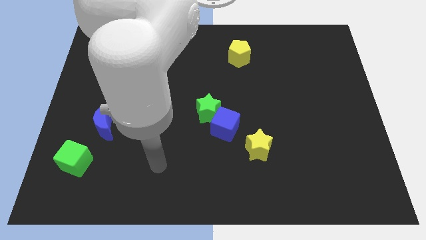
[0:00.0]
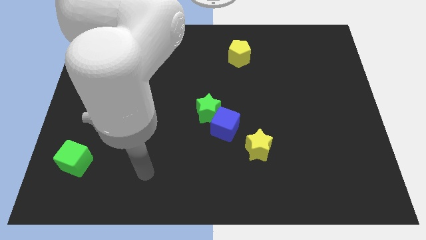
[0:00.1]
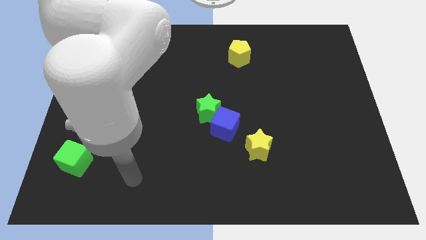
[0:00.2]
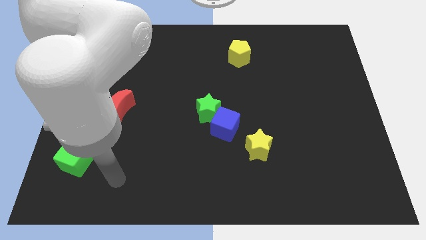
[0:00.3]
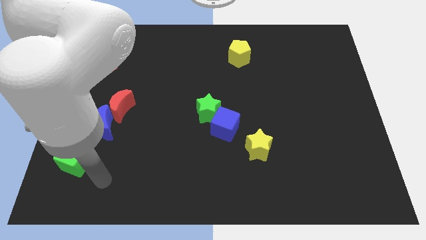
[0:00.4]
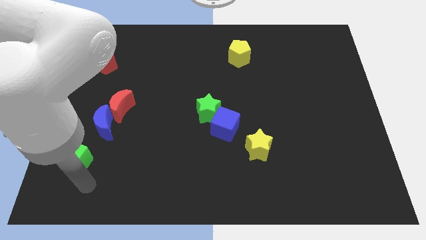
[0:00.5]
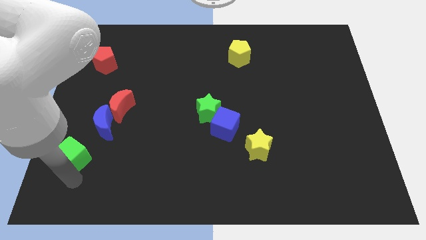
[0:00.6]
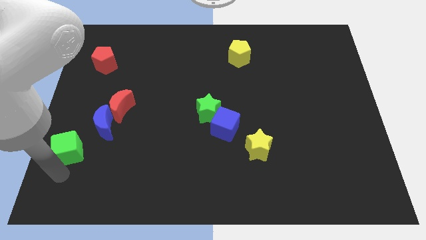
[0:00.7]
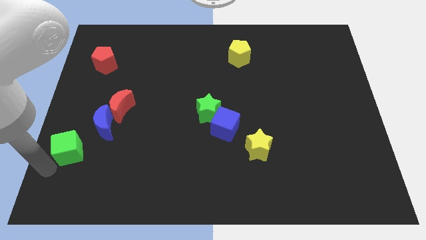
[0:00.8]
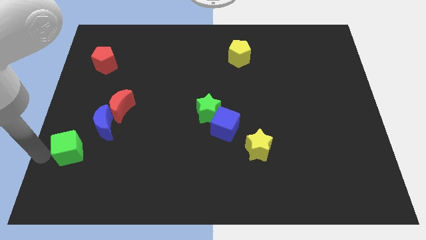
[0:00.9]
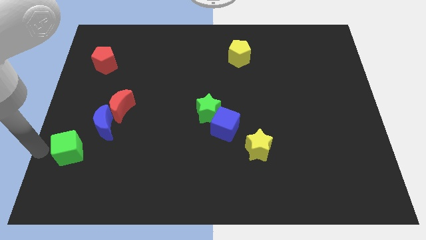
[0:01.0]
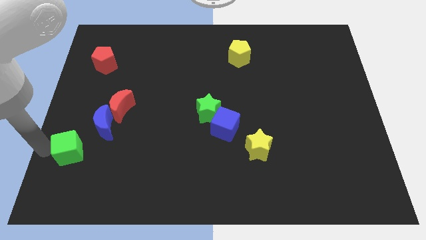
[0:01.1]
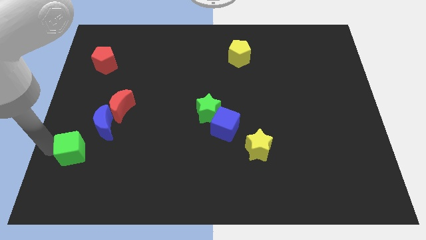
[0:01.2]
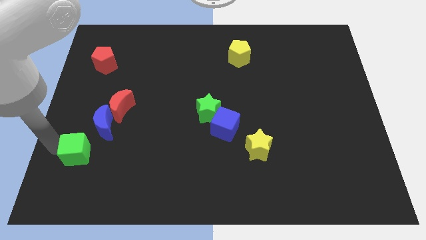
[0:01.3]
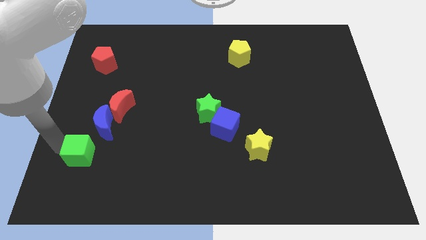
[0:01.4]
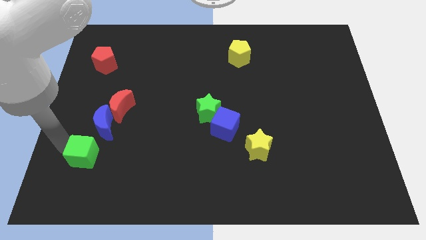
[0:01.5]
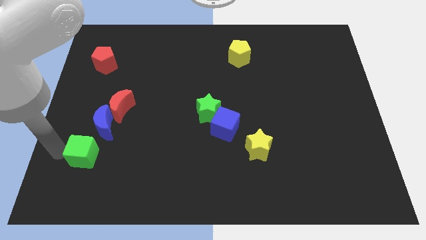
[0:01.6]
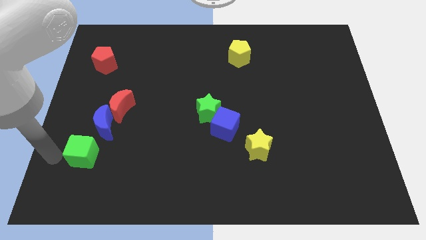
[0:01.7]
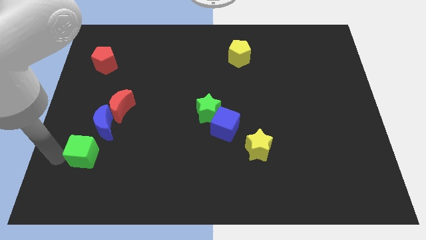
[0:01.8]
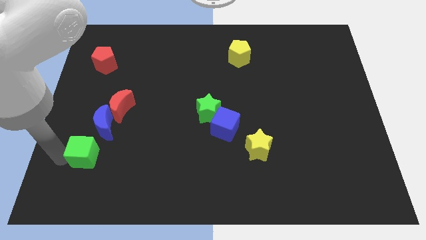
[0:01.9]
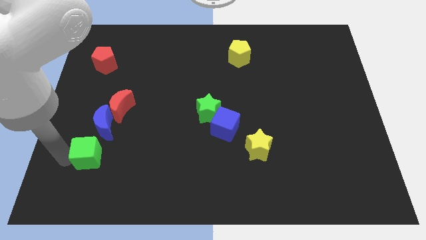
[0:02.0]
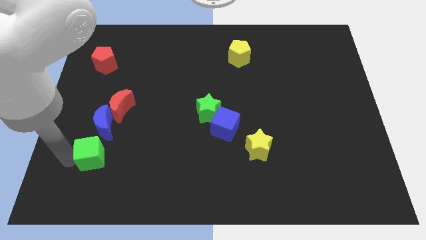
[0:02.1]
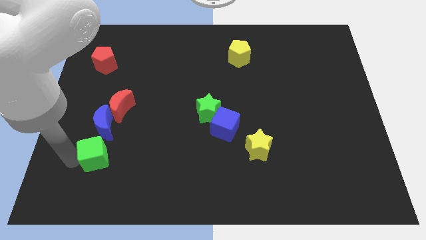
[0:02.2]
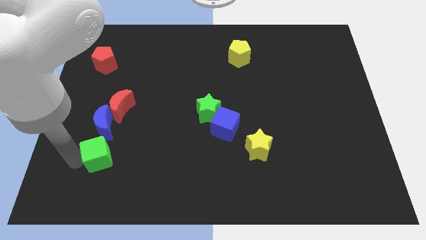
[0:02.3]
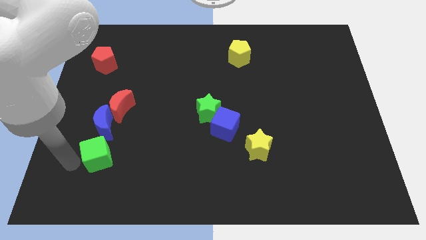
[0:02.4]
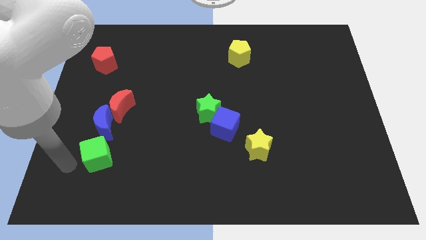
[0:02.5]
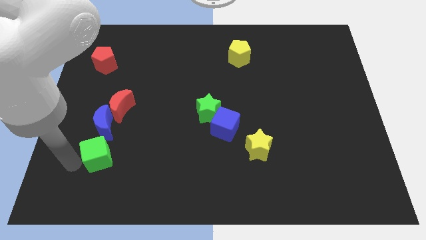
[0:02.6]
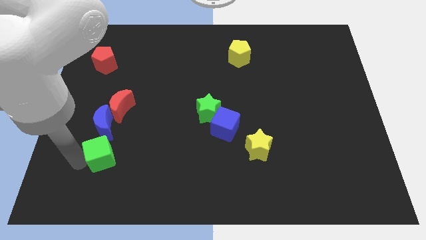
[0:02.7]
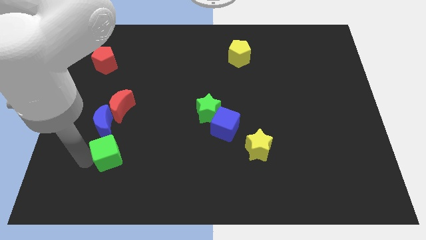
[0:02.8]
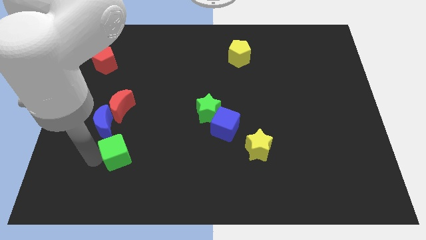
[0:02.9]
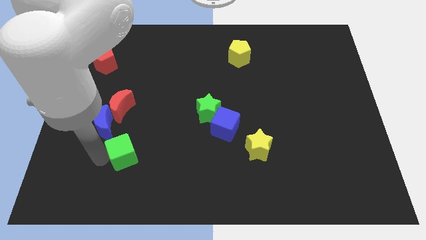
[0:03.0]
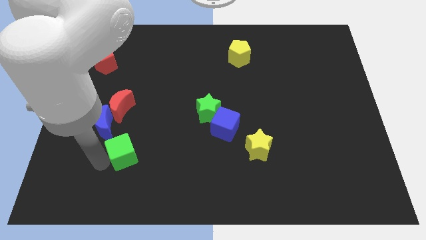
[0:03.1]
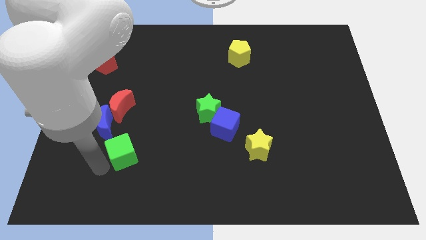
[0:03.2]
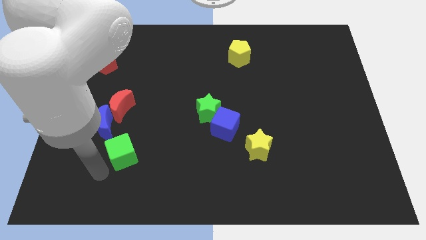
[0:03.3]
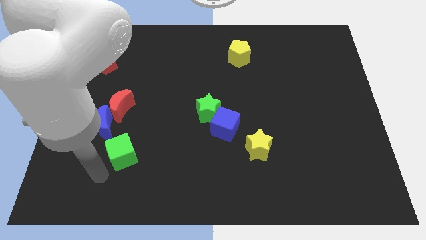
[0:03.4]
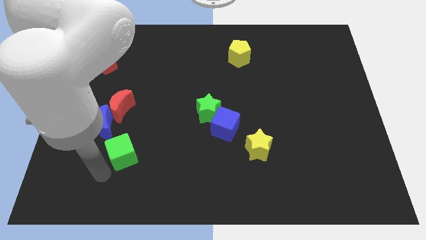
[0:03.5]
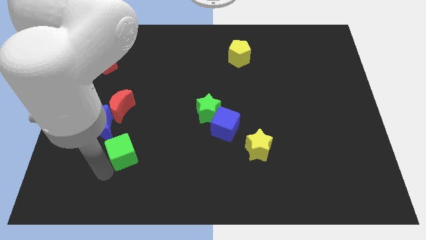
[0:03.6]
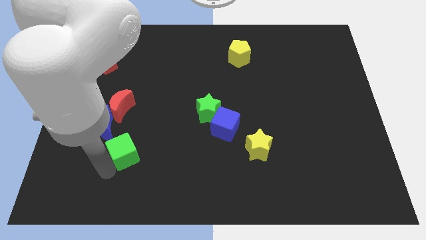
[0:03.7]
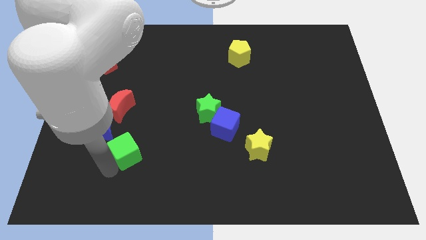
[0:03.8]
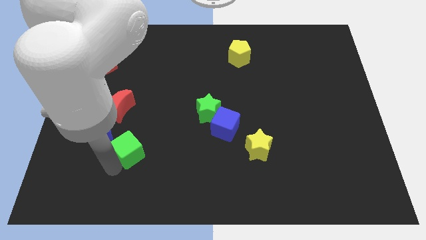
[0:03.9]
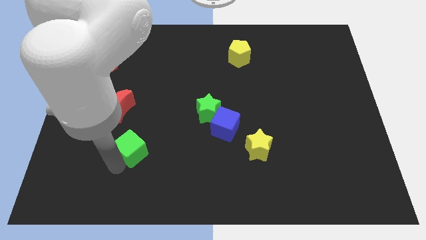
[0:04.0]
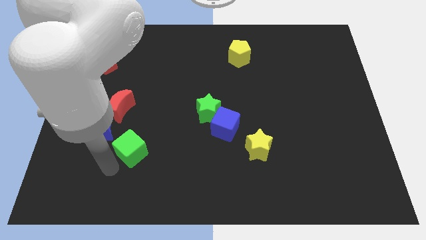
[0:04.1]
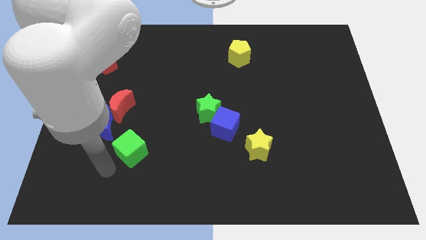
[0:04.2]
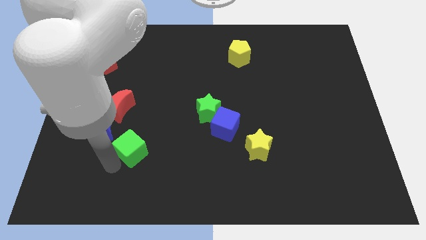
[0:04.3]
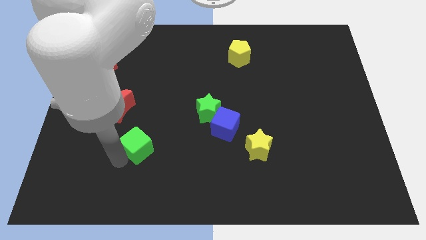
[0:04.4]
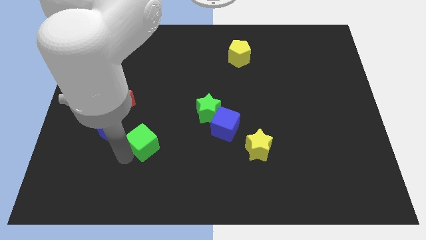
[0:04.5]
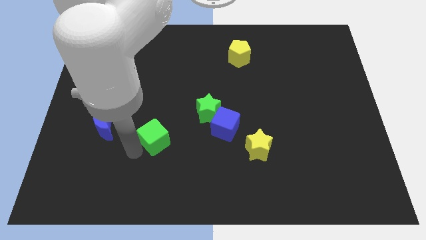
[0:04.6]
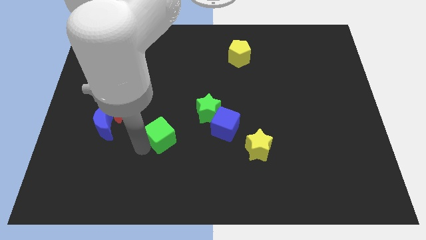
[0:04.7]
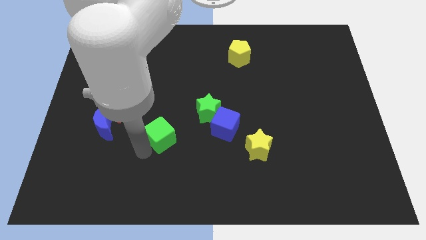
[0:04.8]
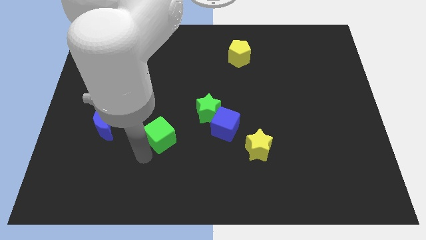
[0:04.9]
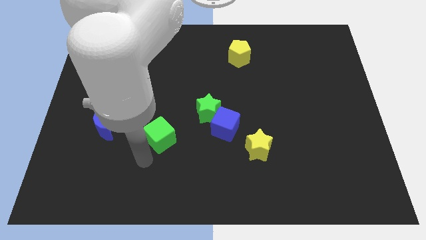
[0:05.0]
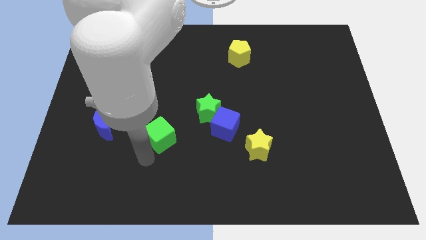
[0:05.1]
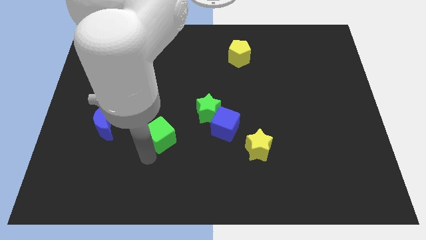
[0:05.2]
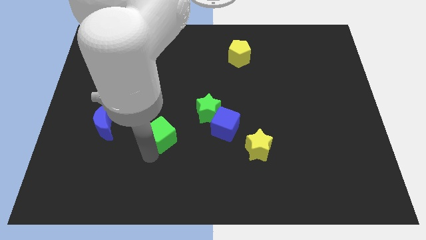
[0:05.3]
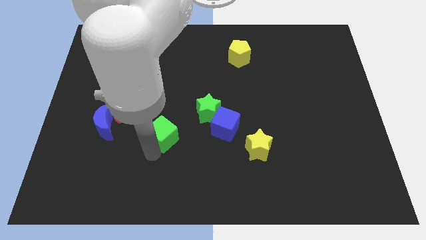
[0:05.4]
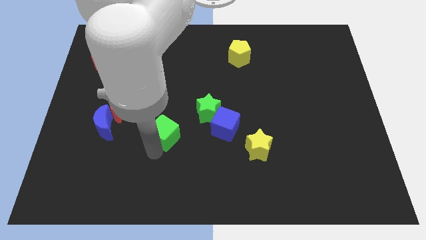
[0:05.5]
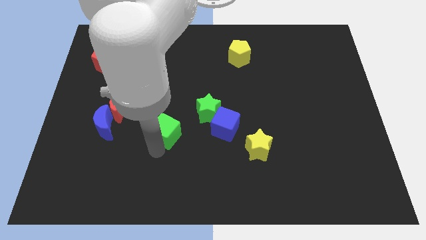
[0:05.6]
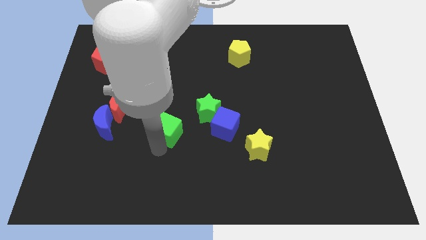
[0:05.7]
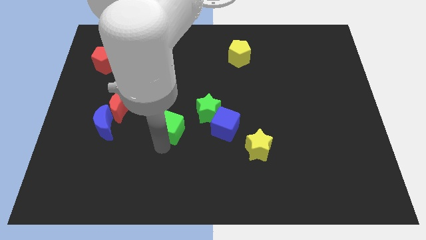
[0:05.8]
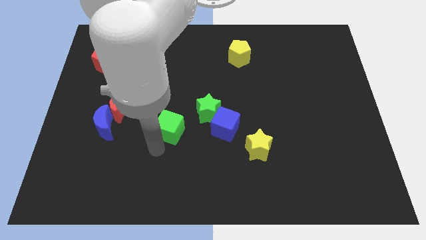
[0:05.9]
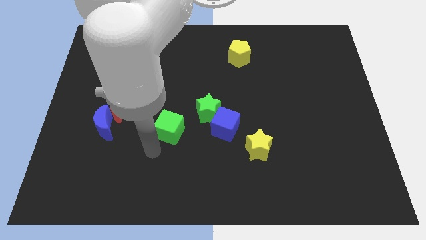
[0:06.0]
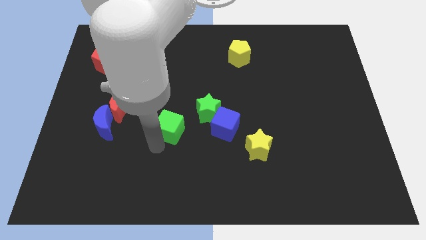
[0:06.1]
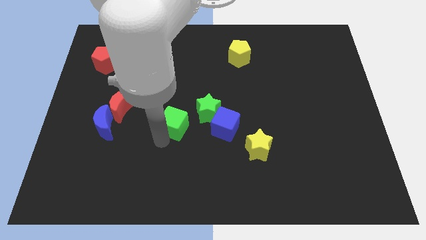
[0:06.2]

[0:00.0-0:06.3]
move the green cube to the middle

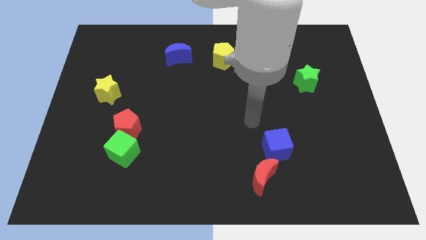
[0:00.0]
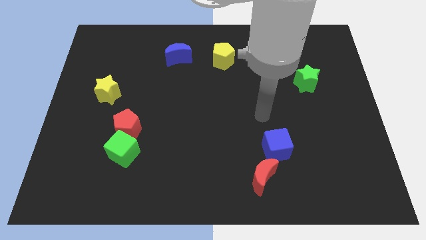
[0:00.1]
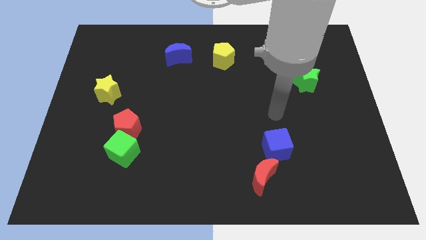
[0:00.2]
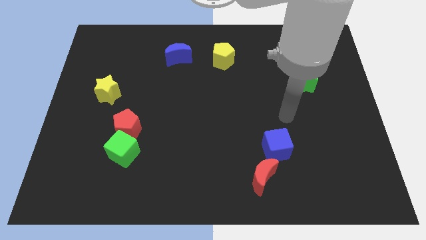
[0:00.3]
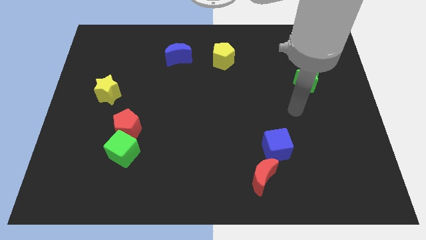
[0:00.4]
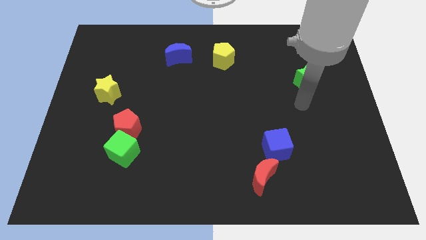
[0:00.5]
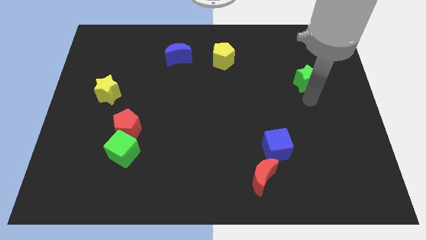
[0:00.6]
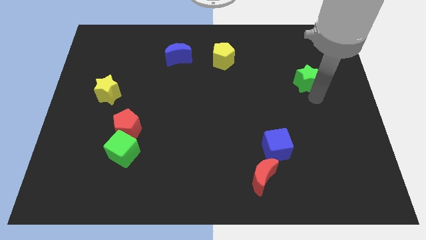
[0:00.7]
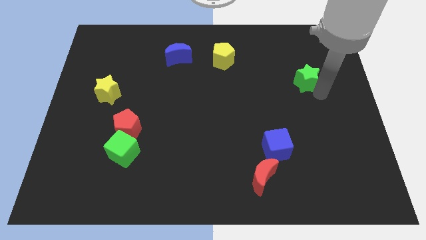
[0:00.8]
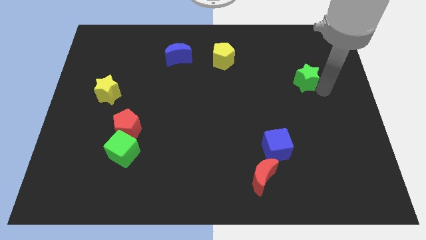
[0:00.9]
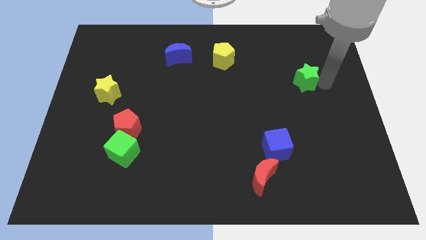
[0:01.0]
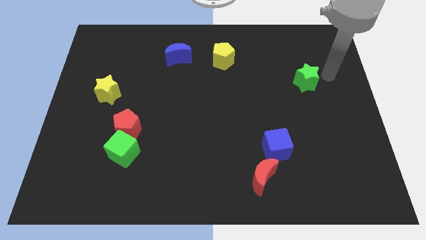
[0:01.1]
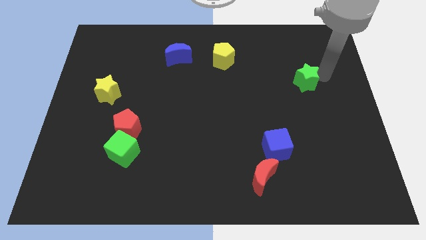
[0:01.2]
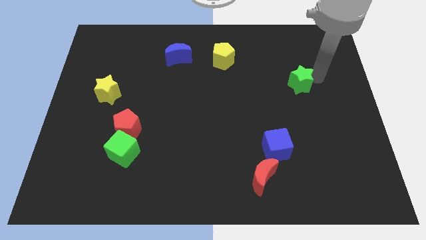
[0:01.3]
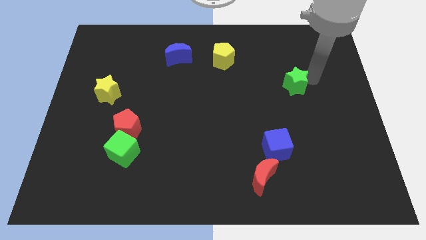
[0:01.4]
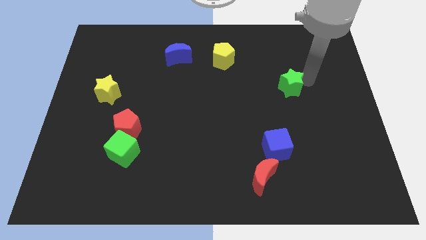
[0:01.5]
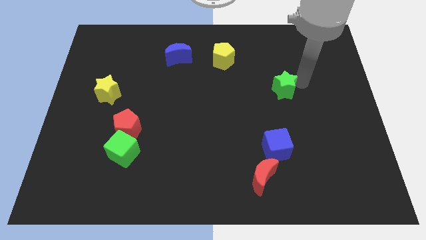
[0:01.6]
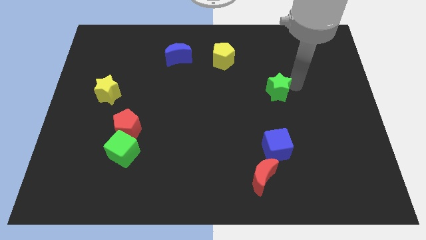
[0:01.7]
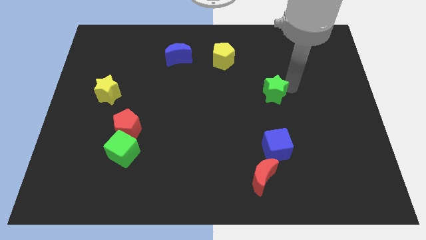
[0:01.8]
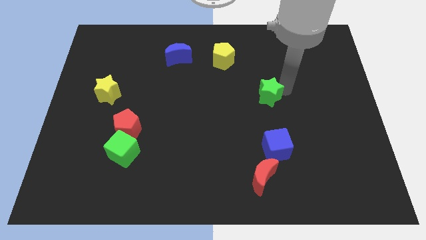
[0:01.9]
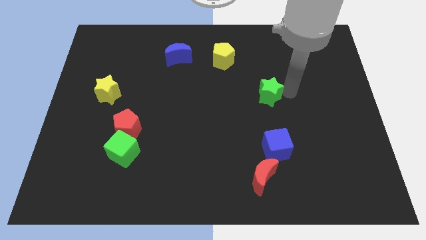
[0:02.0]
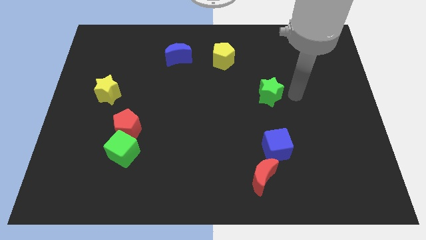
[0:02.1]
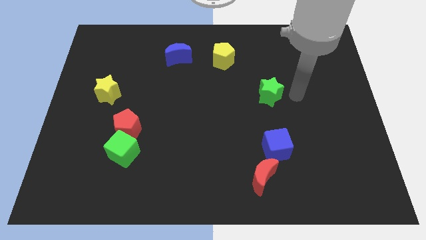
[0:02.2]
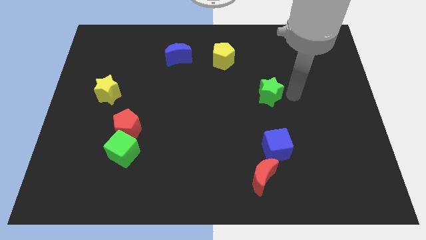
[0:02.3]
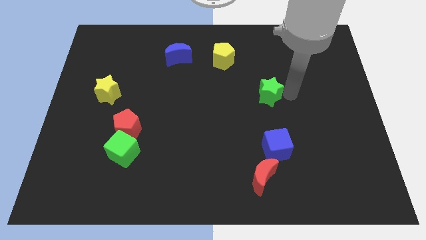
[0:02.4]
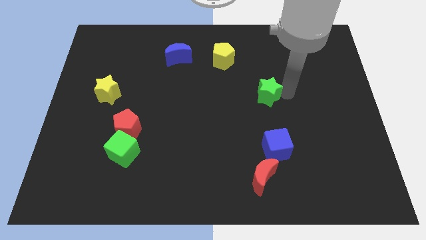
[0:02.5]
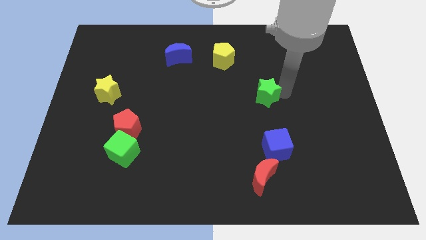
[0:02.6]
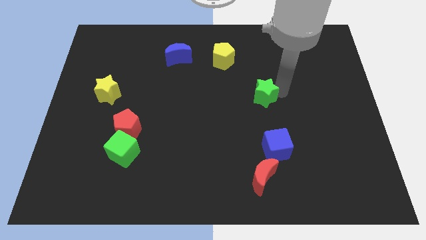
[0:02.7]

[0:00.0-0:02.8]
move the green star to the center
